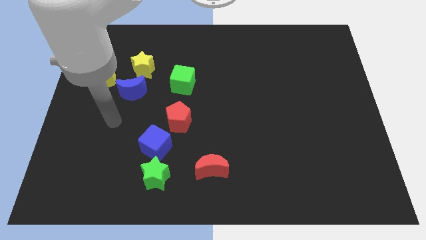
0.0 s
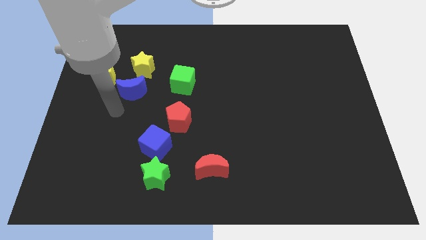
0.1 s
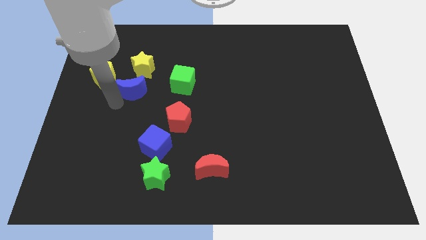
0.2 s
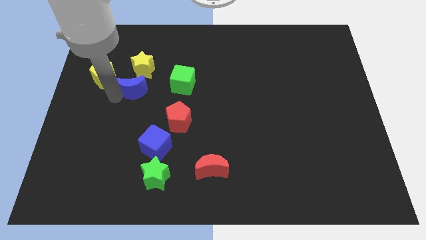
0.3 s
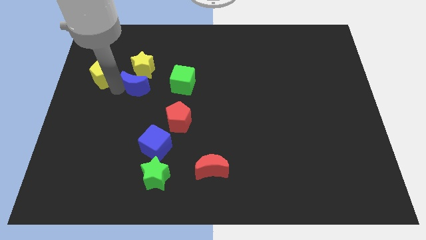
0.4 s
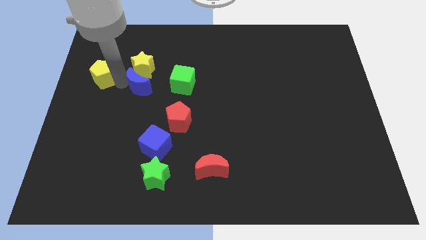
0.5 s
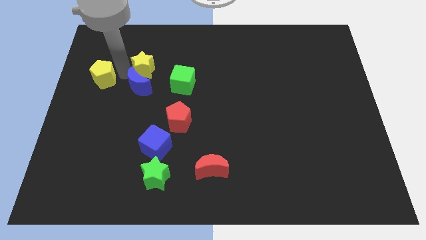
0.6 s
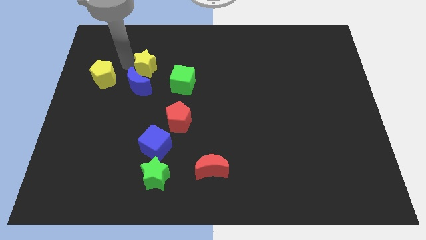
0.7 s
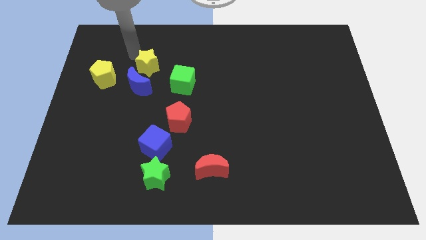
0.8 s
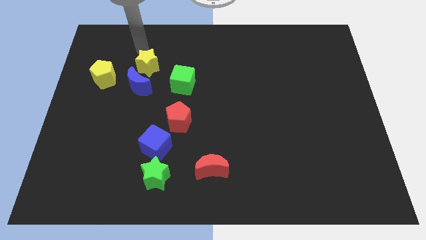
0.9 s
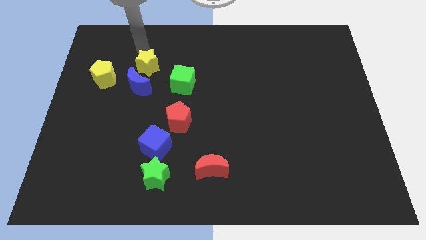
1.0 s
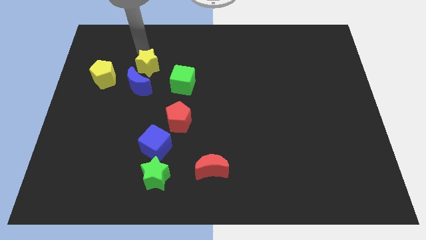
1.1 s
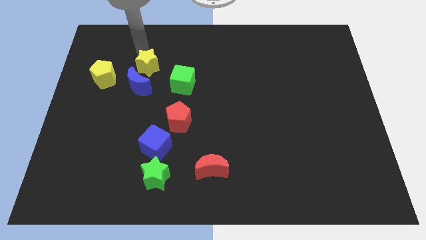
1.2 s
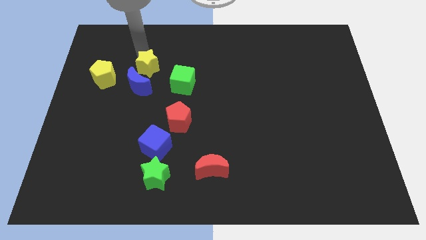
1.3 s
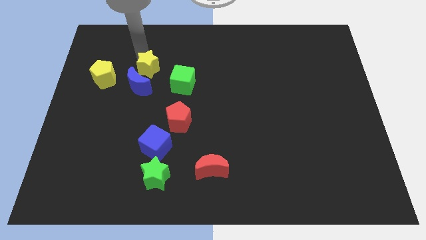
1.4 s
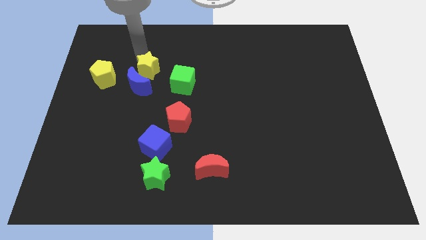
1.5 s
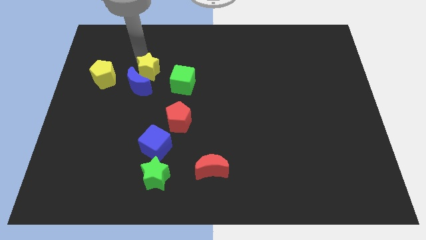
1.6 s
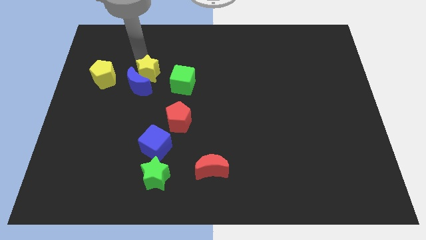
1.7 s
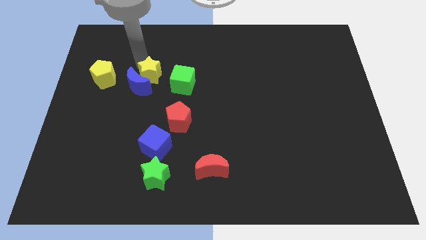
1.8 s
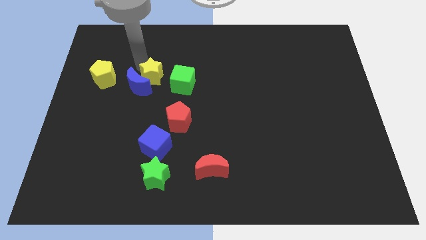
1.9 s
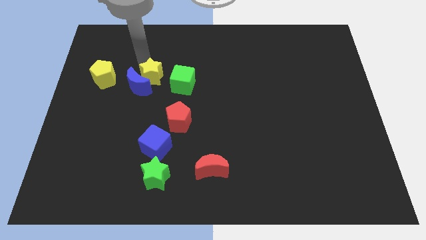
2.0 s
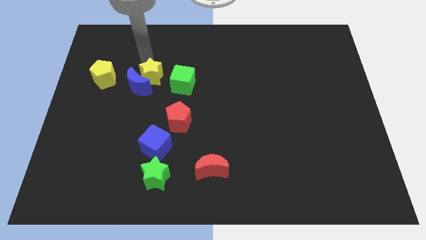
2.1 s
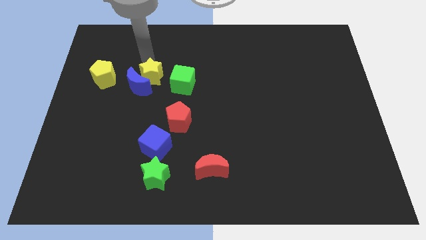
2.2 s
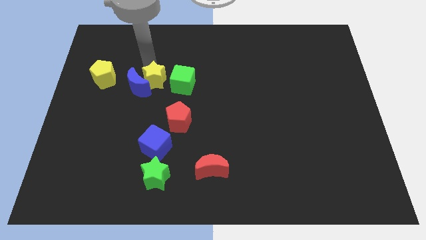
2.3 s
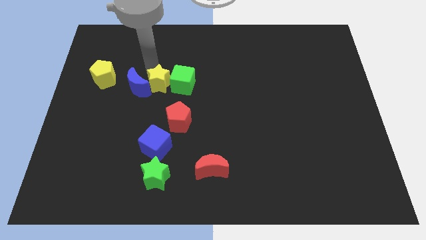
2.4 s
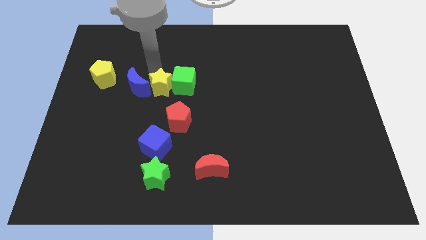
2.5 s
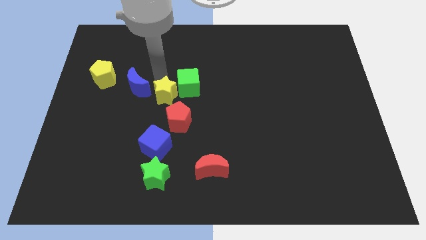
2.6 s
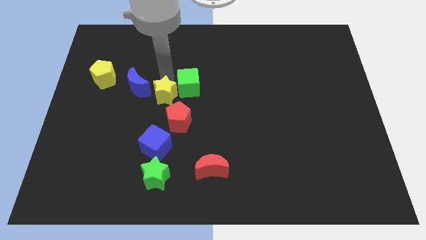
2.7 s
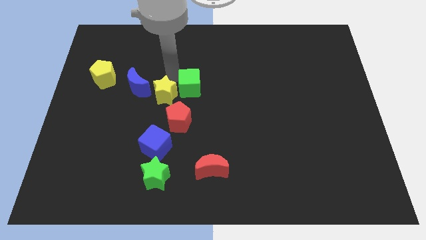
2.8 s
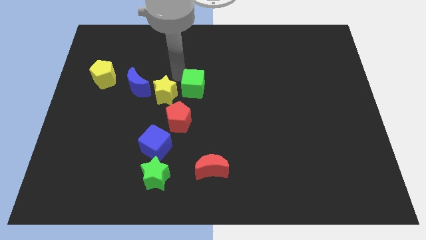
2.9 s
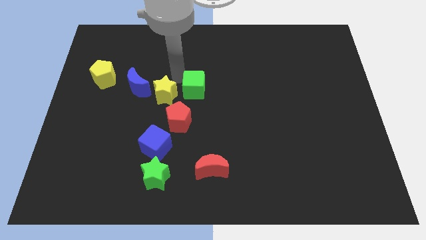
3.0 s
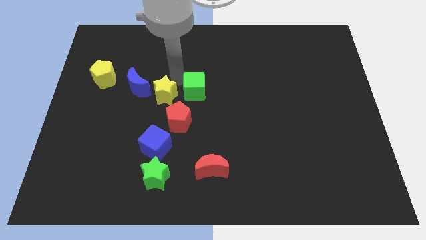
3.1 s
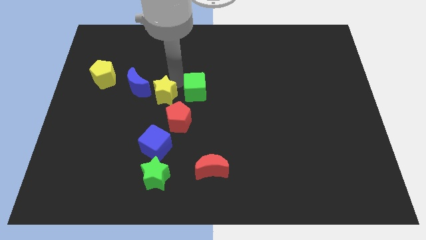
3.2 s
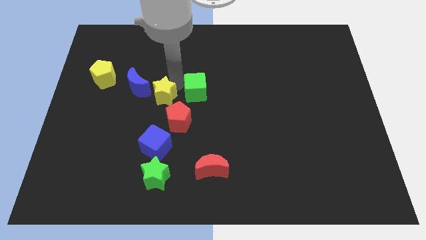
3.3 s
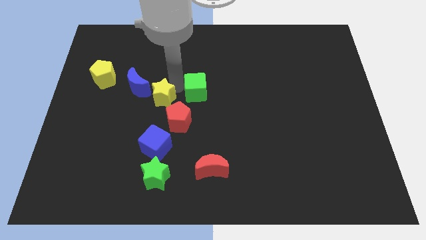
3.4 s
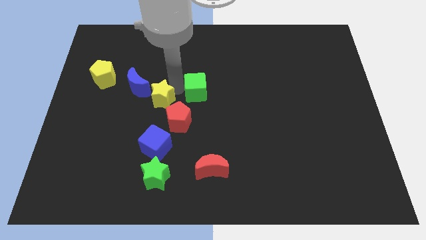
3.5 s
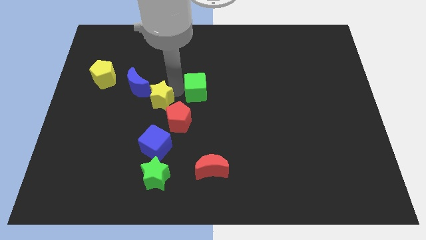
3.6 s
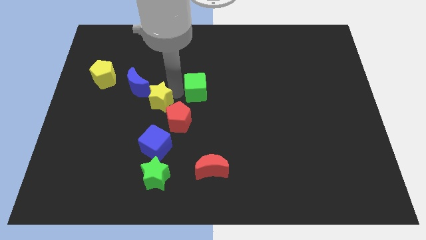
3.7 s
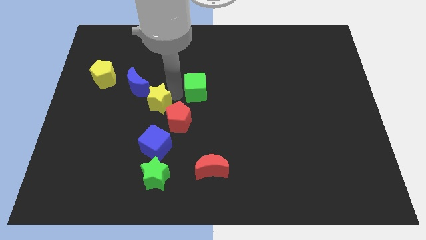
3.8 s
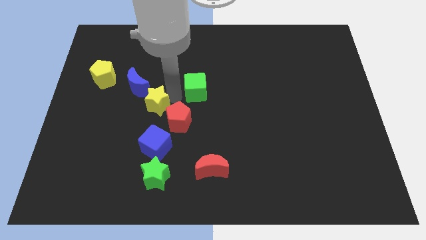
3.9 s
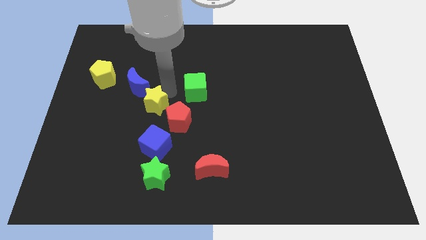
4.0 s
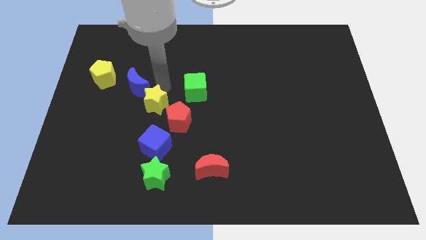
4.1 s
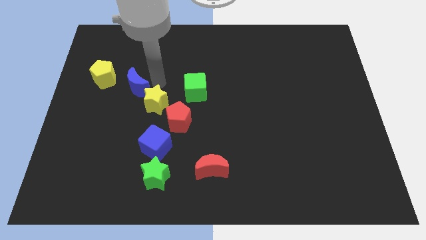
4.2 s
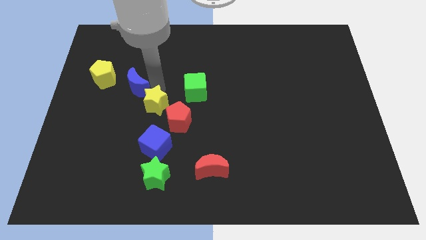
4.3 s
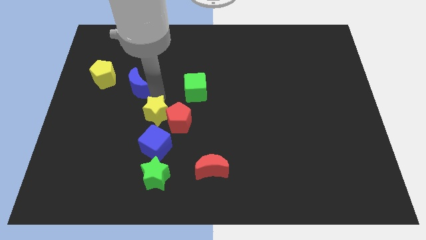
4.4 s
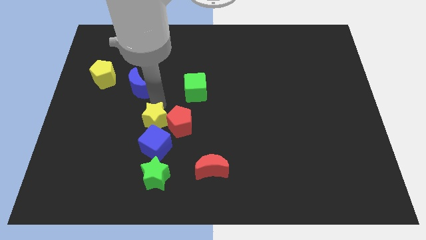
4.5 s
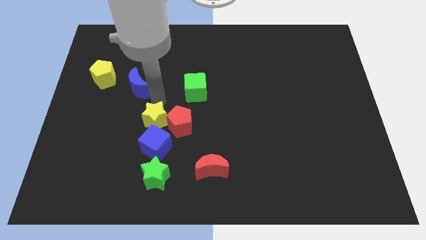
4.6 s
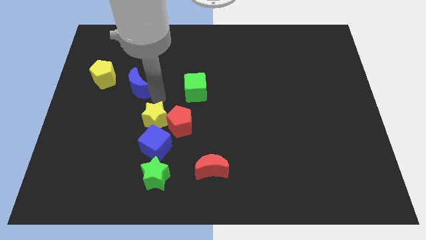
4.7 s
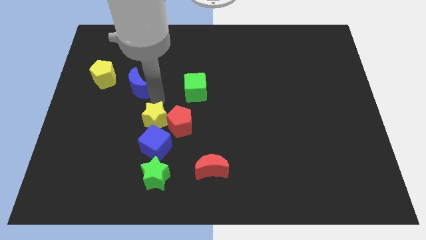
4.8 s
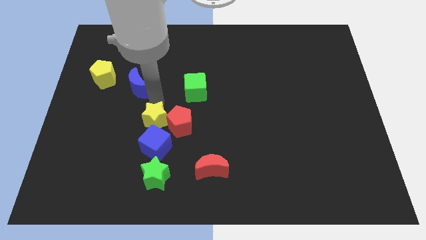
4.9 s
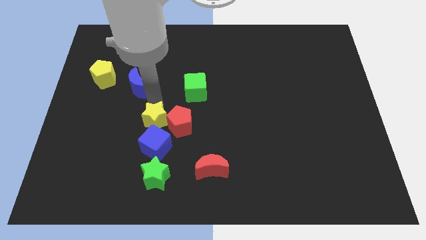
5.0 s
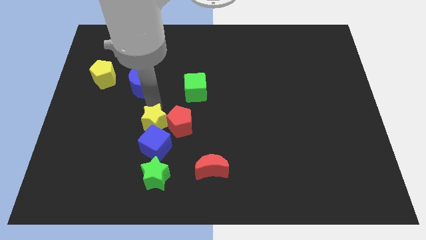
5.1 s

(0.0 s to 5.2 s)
move the yellow star next to the blue cube

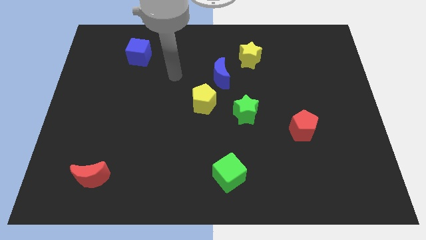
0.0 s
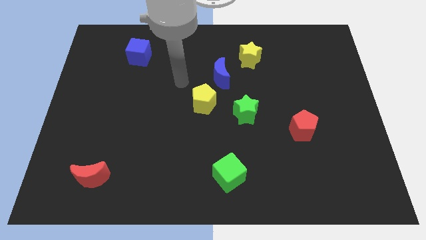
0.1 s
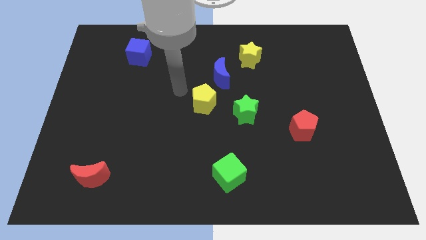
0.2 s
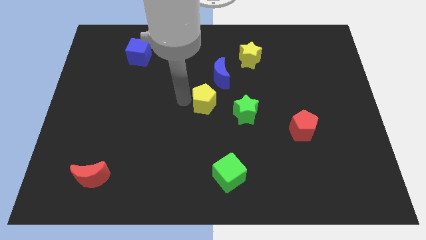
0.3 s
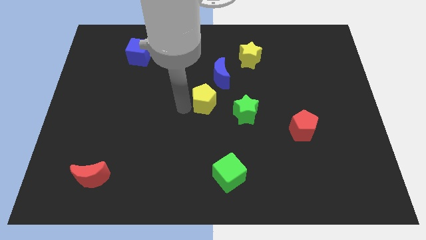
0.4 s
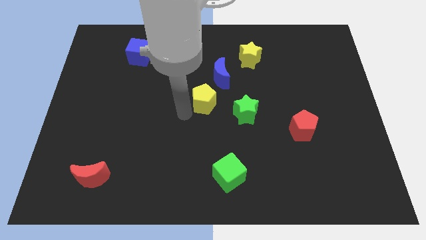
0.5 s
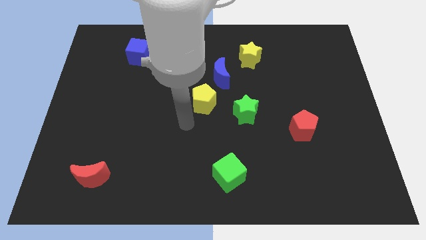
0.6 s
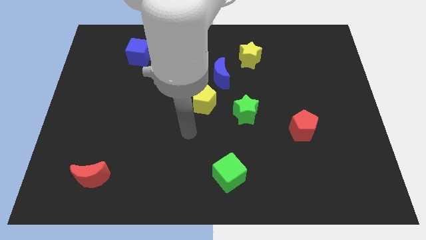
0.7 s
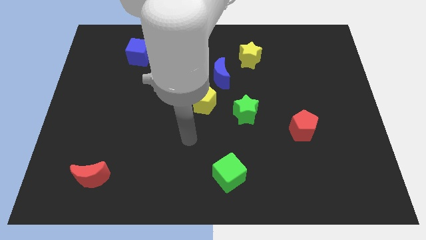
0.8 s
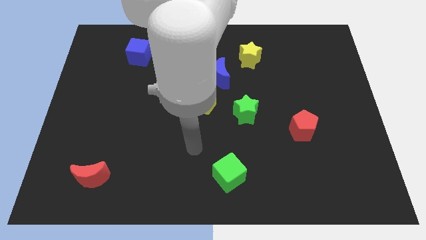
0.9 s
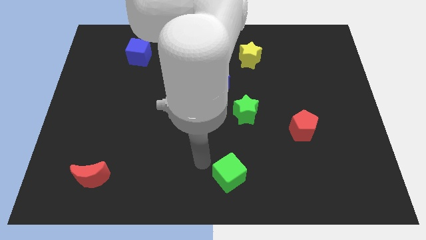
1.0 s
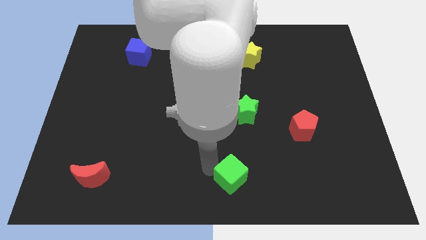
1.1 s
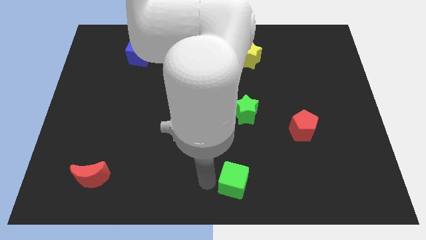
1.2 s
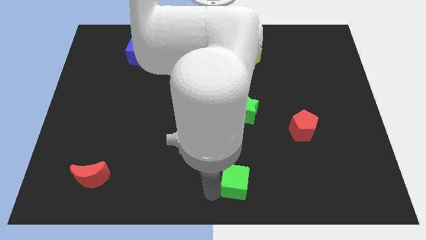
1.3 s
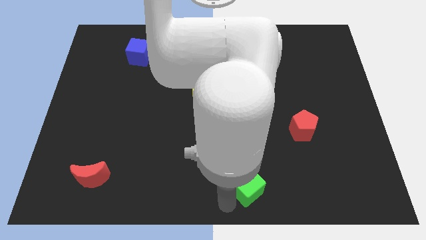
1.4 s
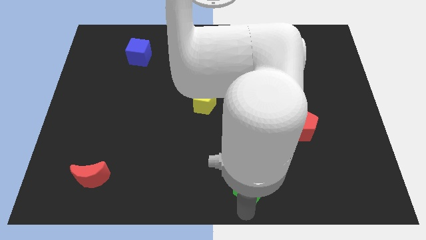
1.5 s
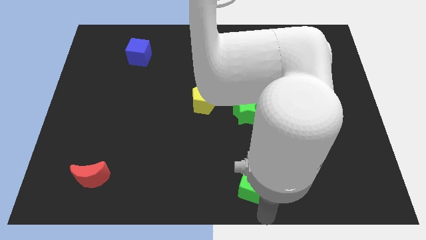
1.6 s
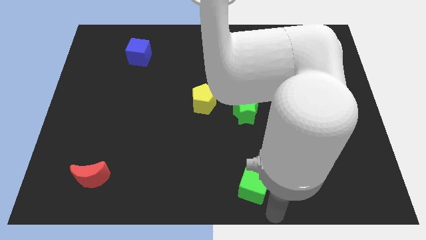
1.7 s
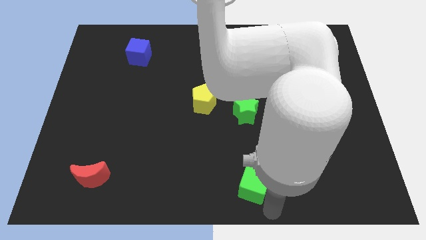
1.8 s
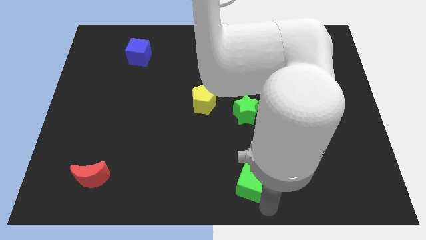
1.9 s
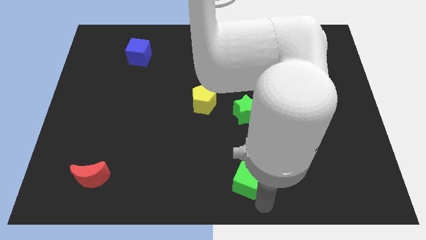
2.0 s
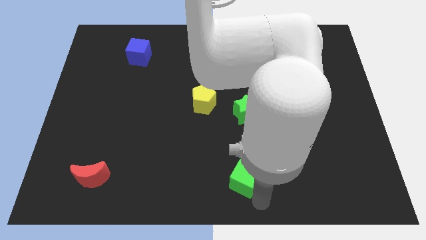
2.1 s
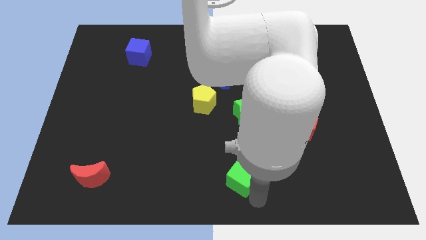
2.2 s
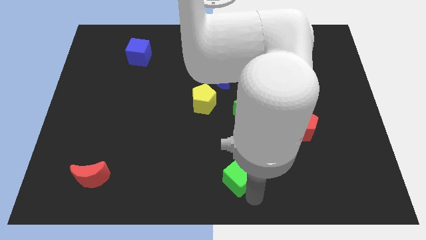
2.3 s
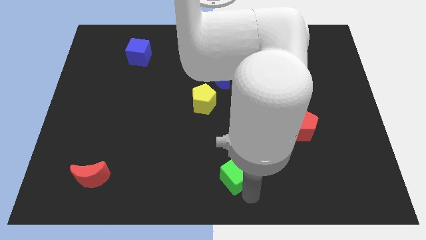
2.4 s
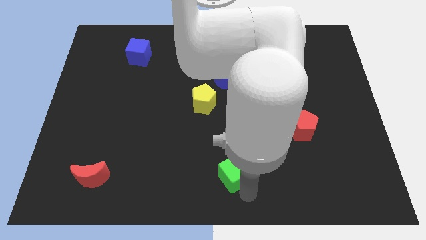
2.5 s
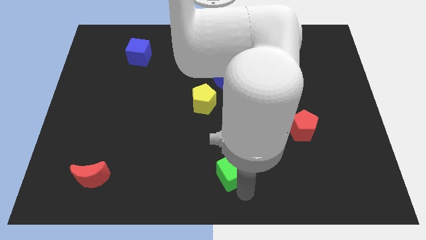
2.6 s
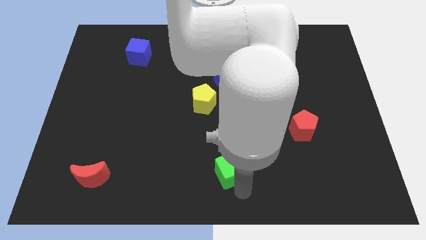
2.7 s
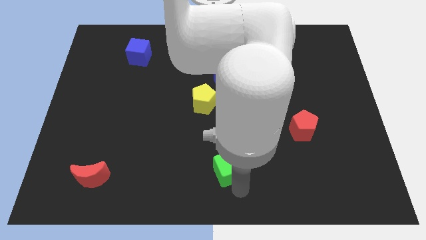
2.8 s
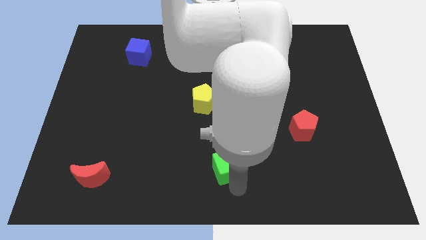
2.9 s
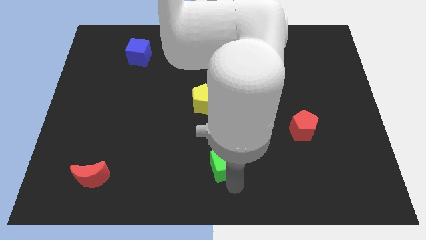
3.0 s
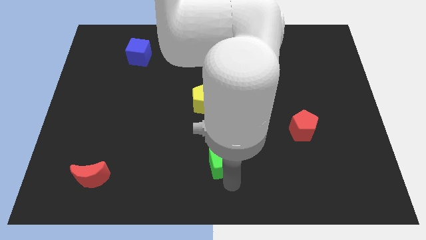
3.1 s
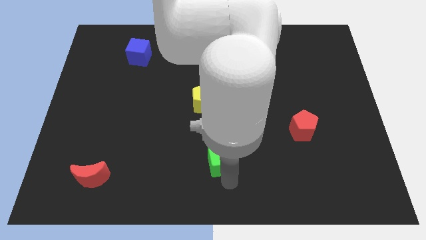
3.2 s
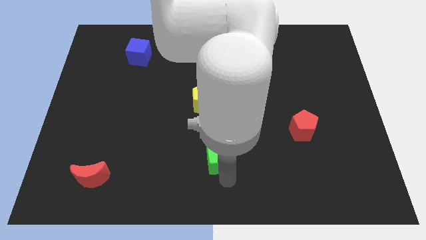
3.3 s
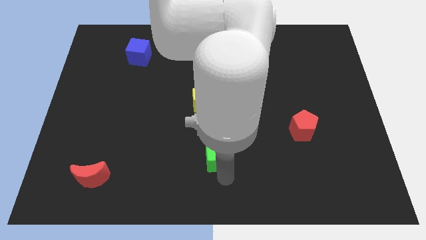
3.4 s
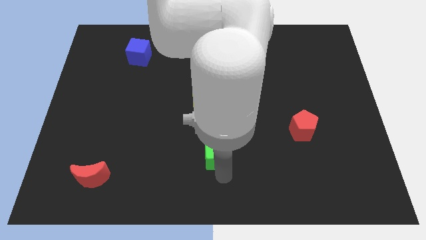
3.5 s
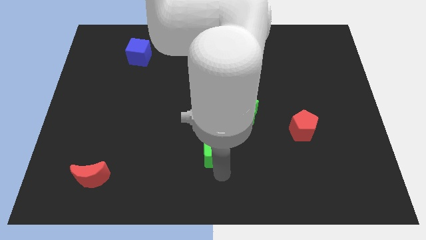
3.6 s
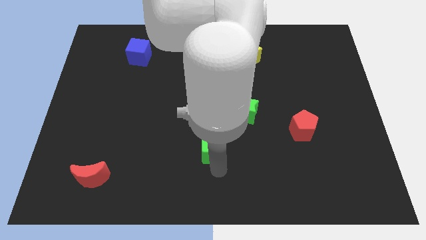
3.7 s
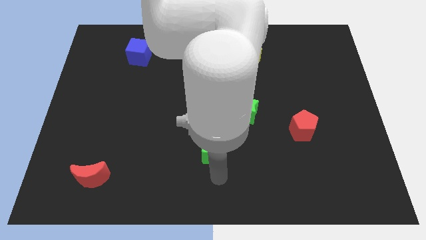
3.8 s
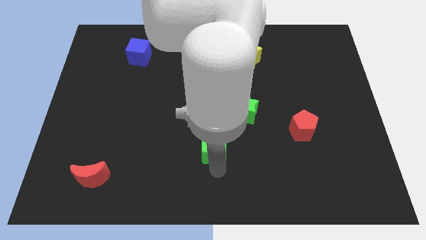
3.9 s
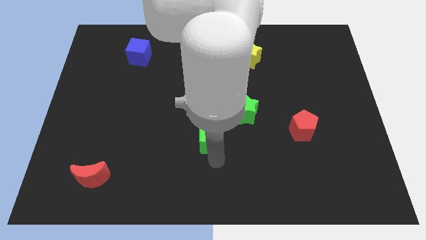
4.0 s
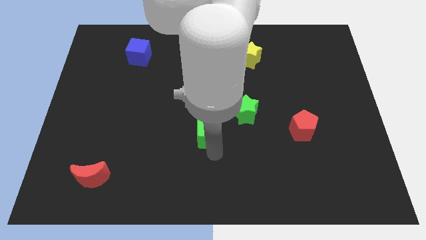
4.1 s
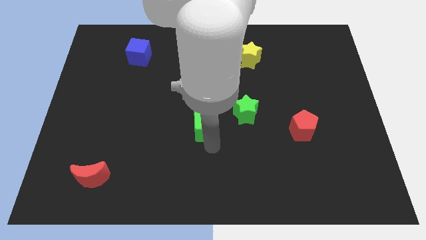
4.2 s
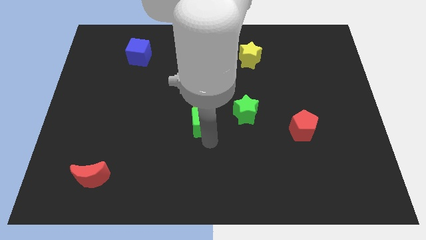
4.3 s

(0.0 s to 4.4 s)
slide the green cube to the yellow pentagon
